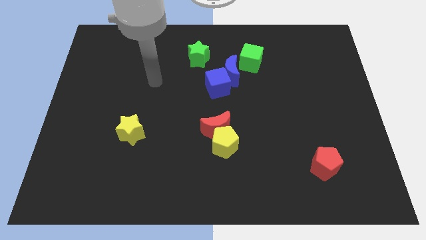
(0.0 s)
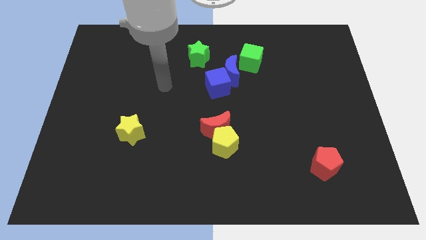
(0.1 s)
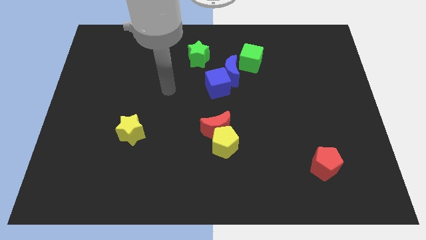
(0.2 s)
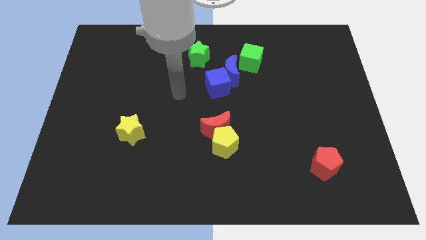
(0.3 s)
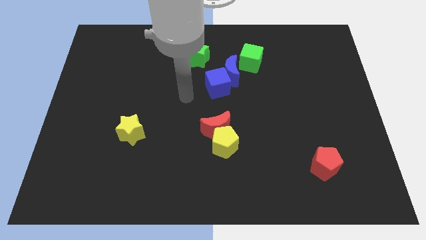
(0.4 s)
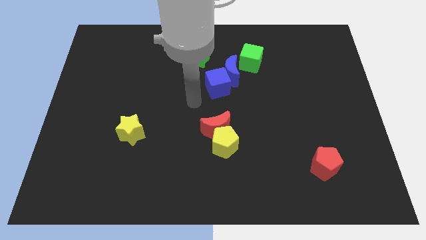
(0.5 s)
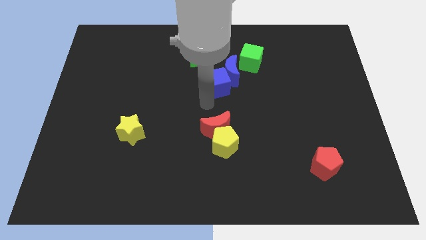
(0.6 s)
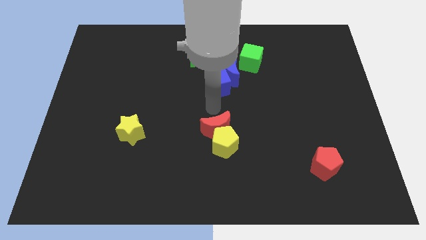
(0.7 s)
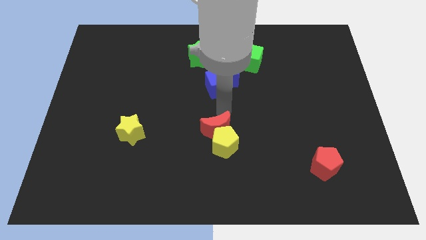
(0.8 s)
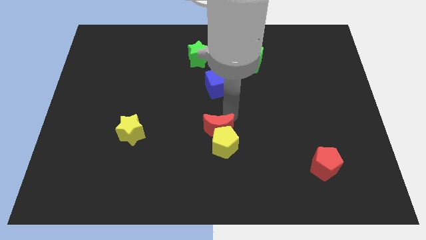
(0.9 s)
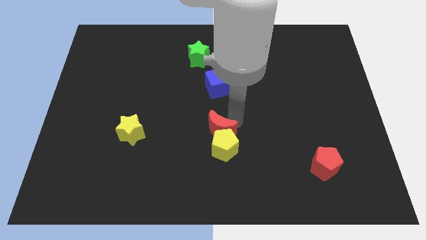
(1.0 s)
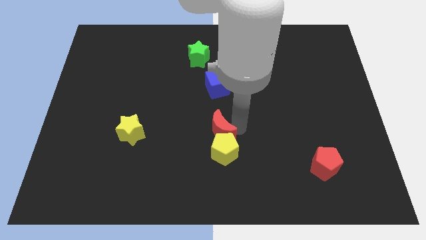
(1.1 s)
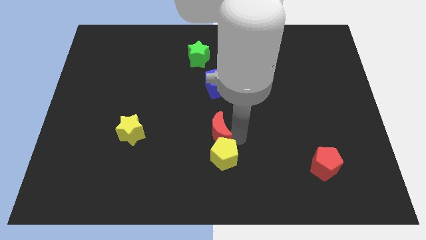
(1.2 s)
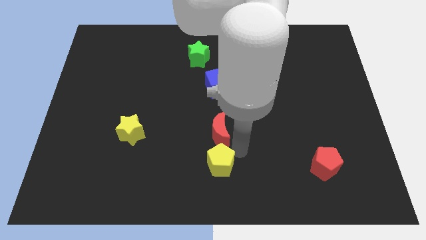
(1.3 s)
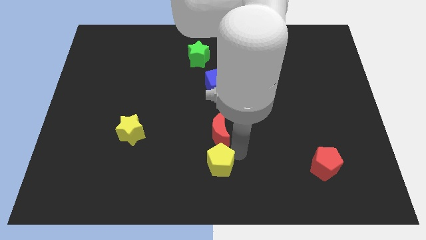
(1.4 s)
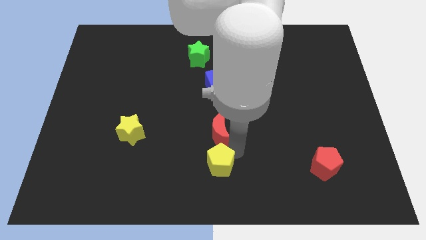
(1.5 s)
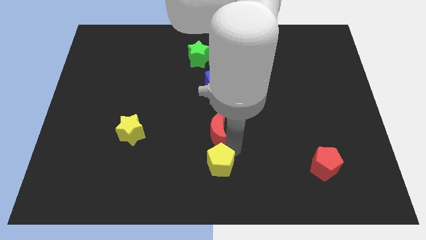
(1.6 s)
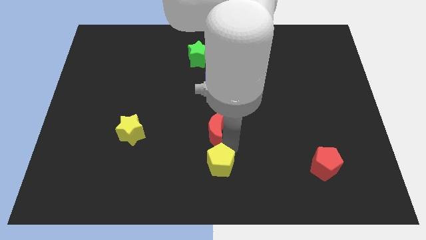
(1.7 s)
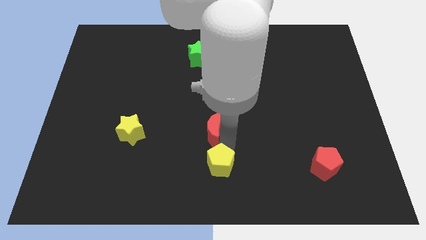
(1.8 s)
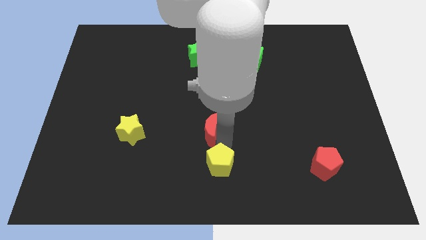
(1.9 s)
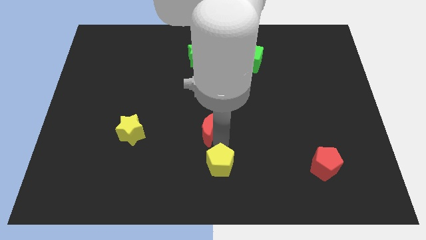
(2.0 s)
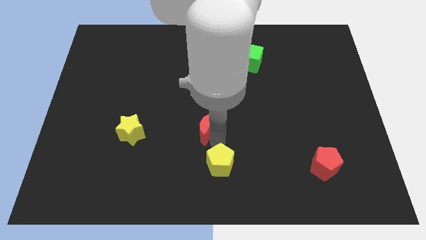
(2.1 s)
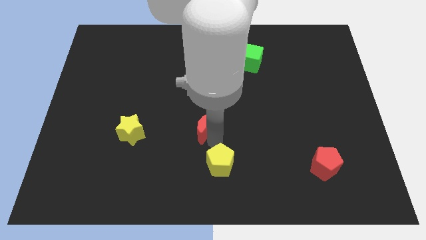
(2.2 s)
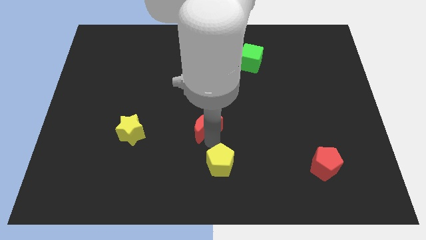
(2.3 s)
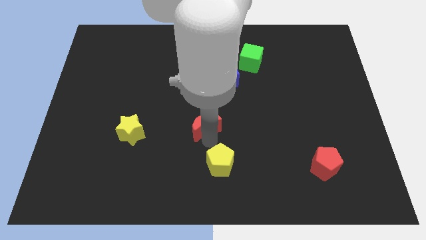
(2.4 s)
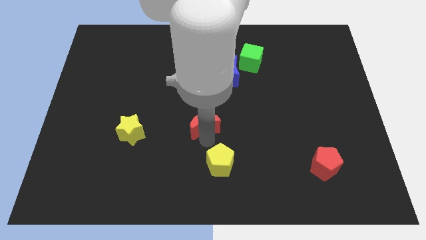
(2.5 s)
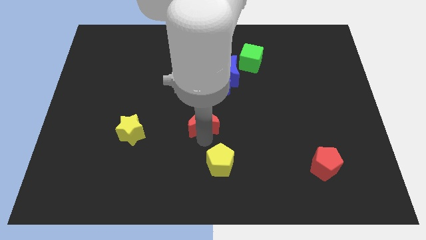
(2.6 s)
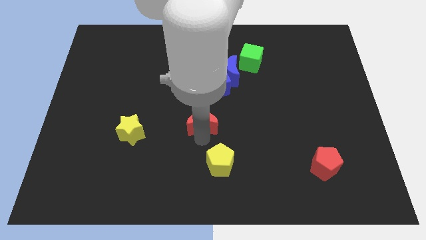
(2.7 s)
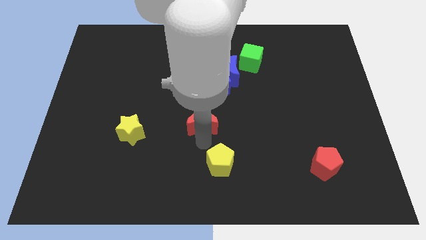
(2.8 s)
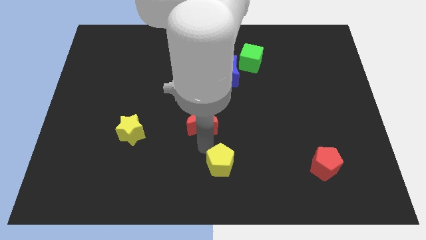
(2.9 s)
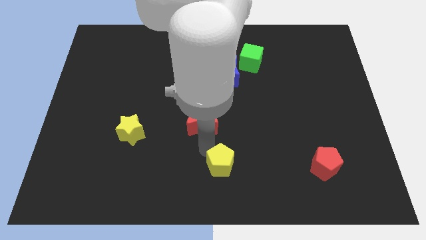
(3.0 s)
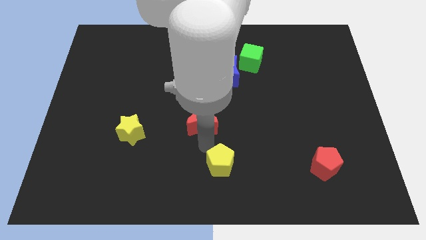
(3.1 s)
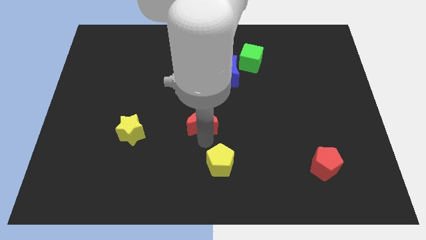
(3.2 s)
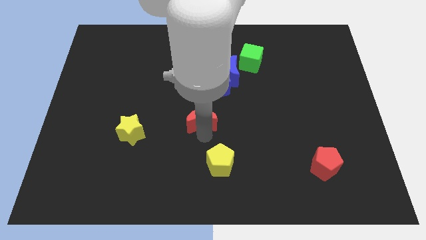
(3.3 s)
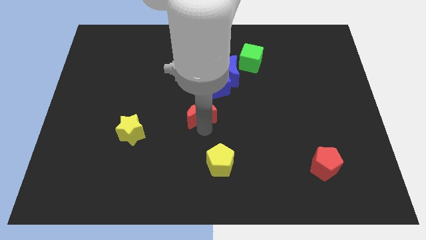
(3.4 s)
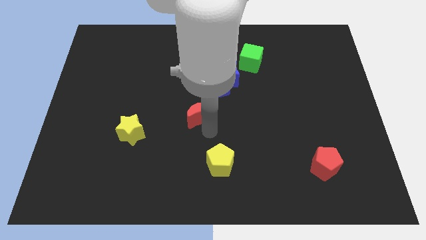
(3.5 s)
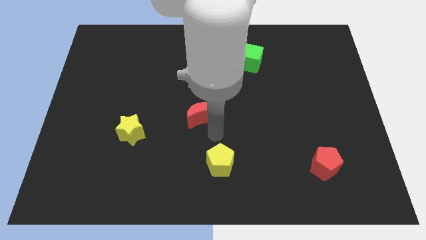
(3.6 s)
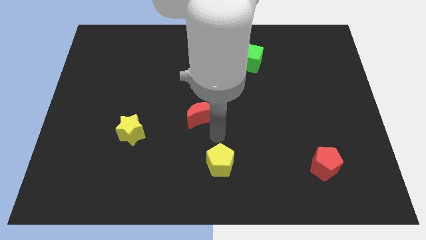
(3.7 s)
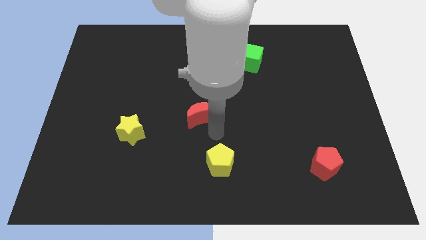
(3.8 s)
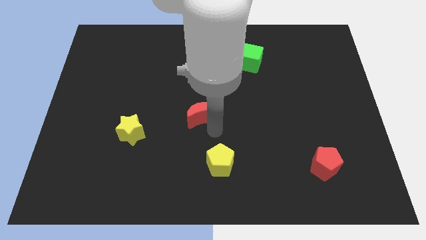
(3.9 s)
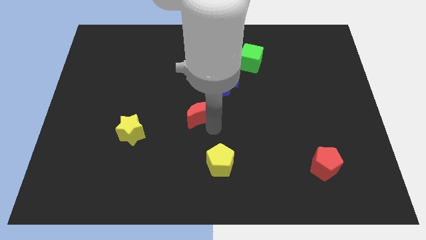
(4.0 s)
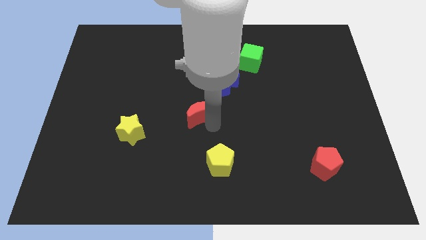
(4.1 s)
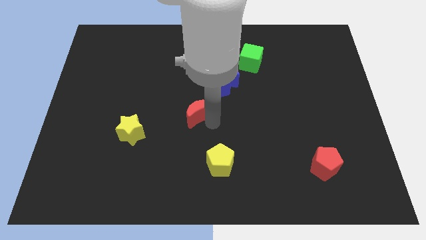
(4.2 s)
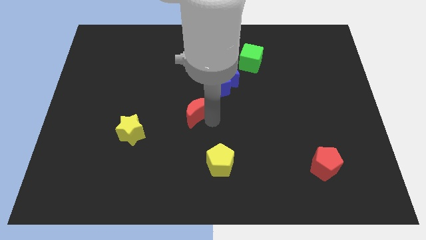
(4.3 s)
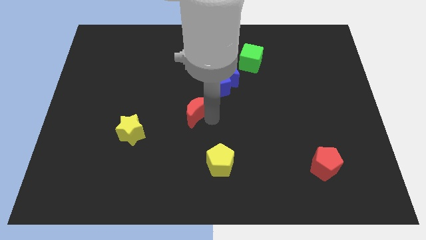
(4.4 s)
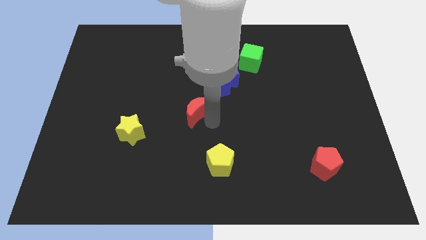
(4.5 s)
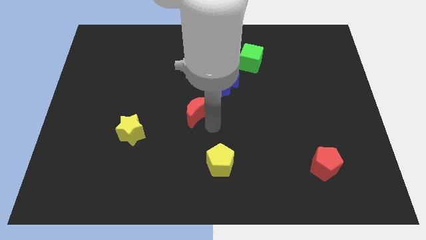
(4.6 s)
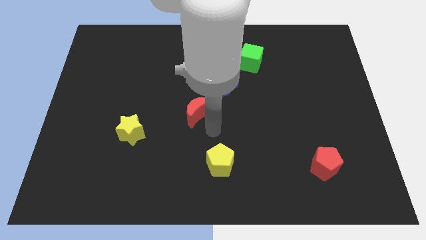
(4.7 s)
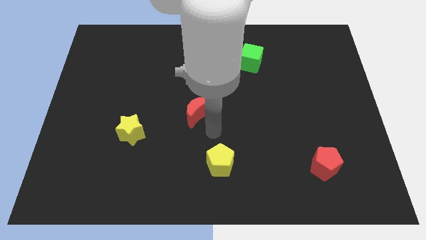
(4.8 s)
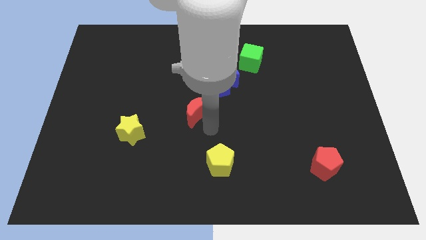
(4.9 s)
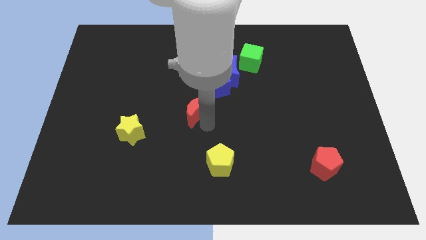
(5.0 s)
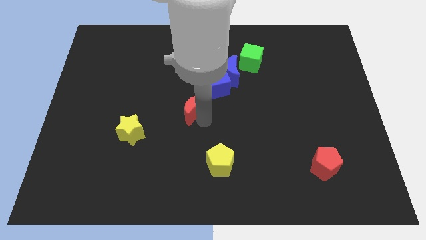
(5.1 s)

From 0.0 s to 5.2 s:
slide the red moon a bit upwards and left

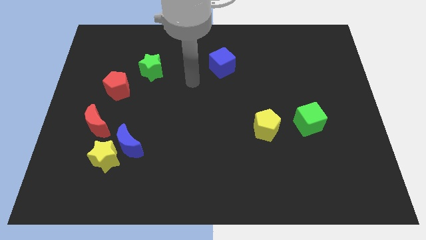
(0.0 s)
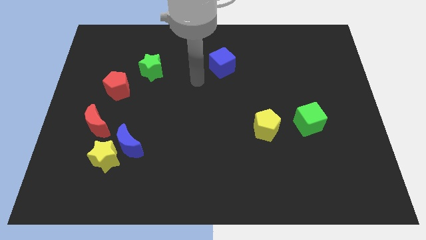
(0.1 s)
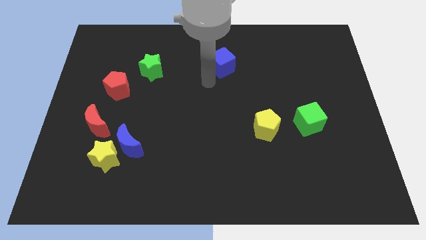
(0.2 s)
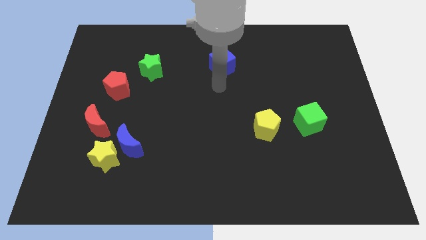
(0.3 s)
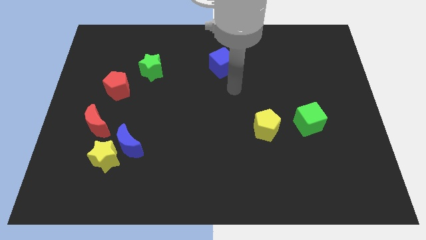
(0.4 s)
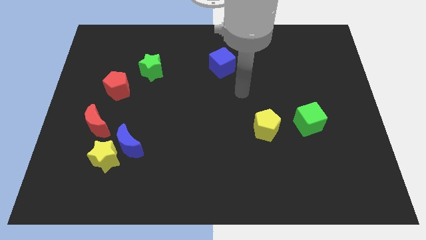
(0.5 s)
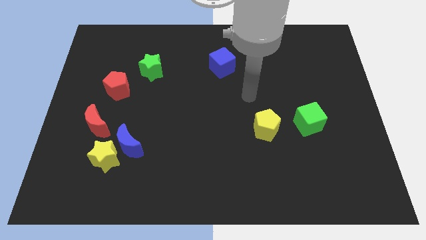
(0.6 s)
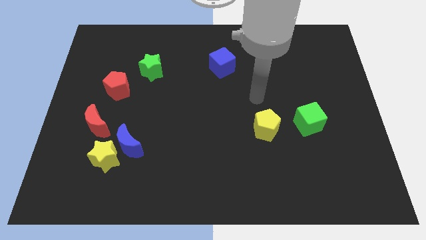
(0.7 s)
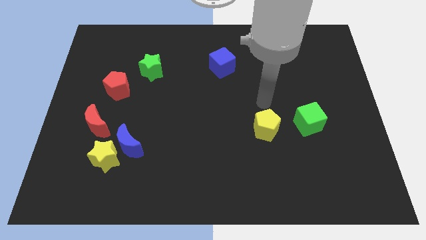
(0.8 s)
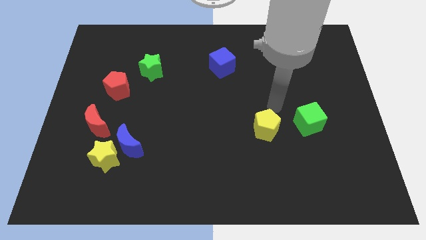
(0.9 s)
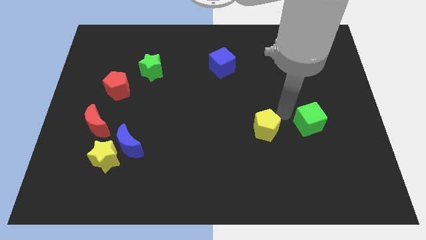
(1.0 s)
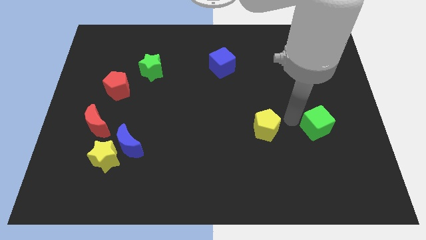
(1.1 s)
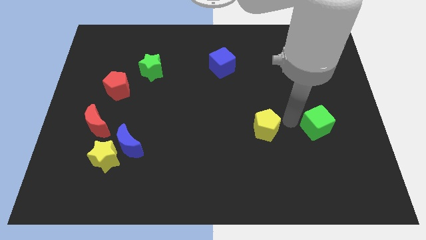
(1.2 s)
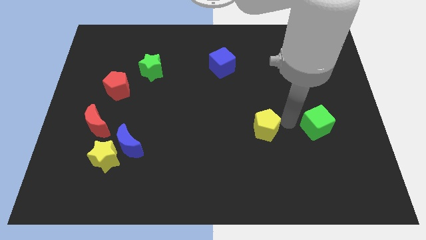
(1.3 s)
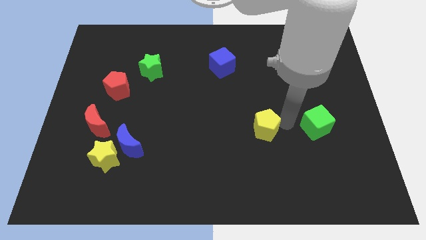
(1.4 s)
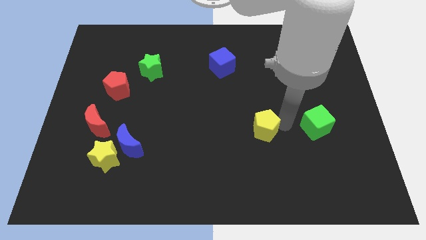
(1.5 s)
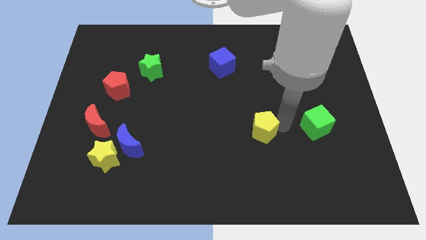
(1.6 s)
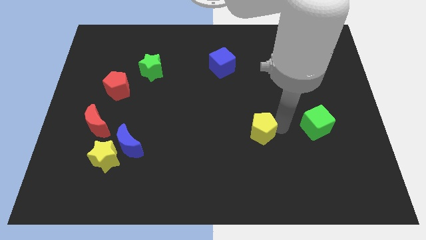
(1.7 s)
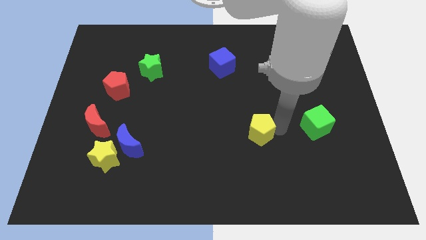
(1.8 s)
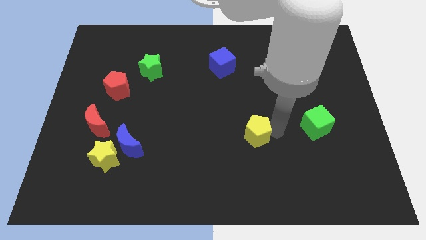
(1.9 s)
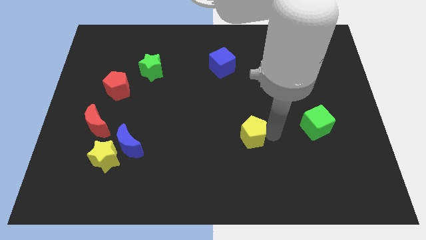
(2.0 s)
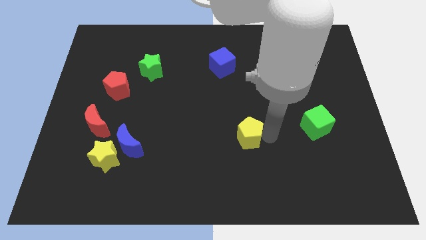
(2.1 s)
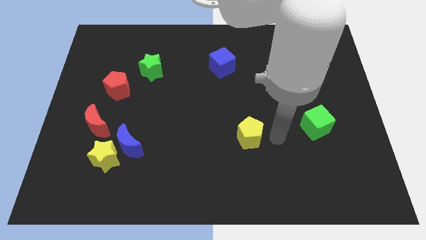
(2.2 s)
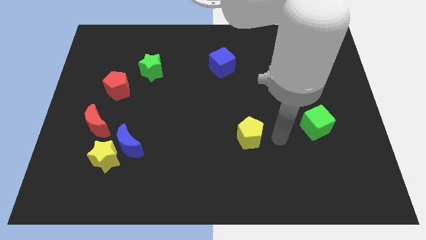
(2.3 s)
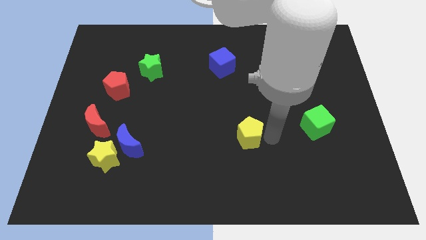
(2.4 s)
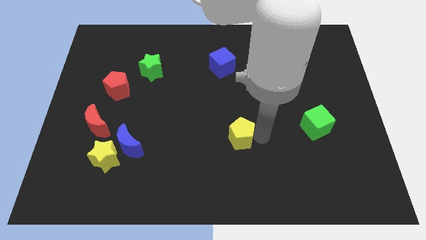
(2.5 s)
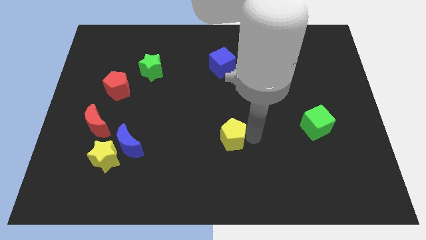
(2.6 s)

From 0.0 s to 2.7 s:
push the yellow pentagon a little bit left

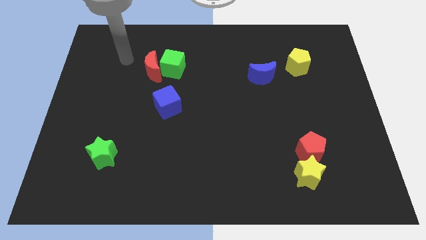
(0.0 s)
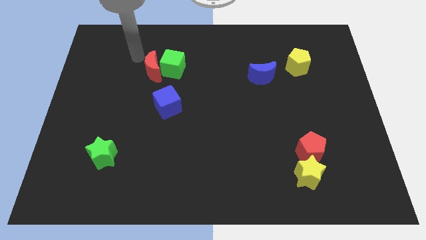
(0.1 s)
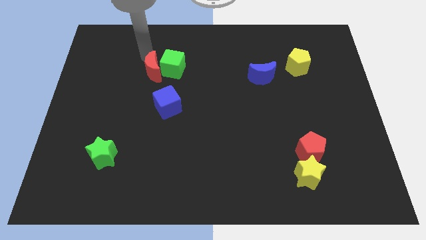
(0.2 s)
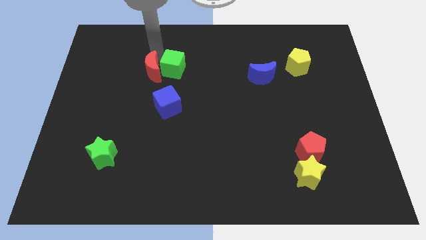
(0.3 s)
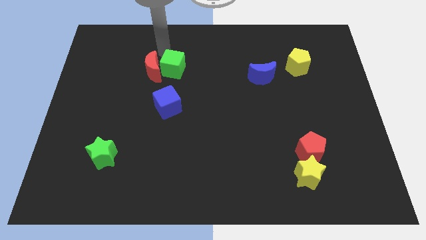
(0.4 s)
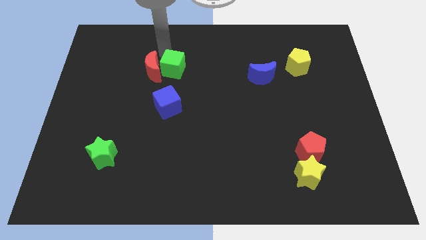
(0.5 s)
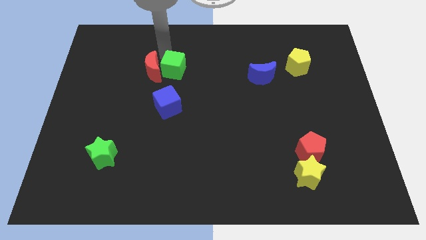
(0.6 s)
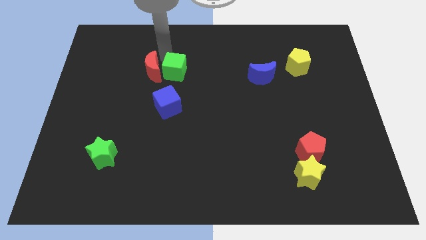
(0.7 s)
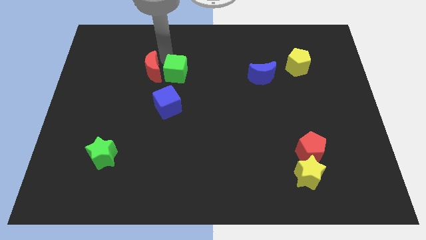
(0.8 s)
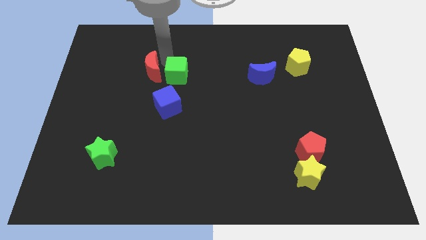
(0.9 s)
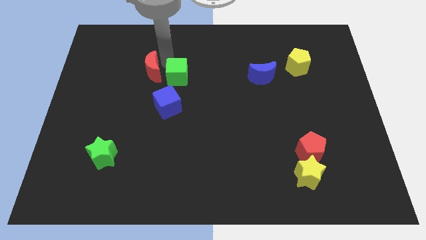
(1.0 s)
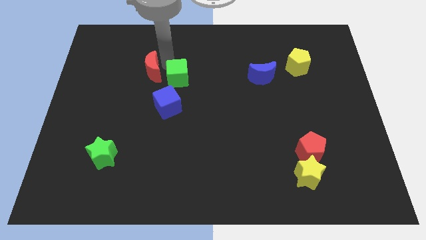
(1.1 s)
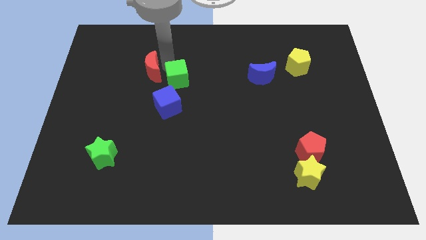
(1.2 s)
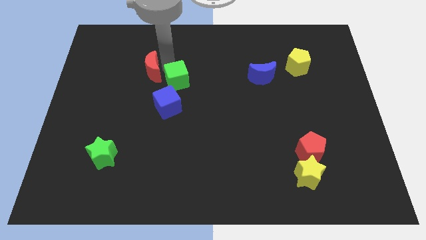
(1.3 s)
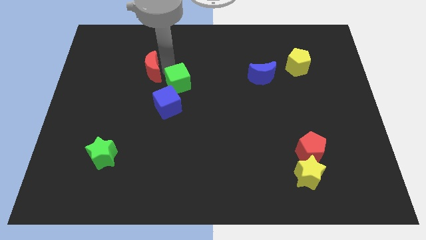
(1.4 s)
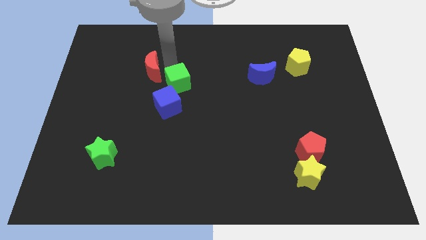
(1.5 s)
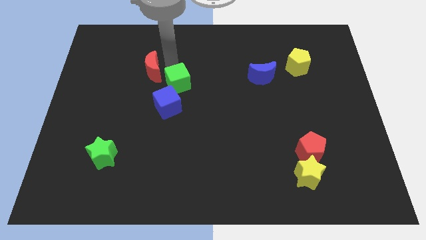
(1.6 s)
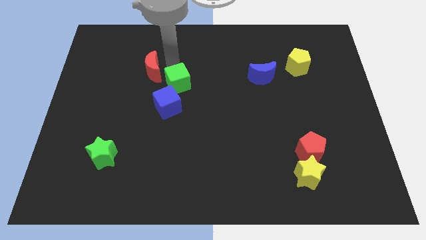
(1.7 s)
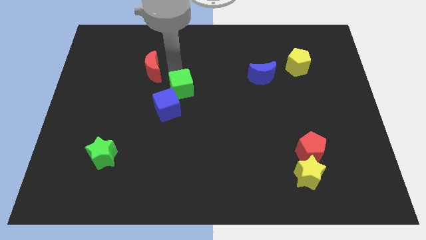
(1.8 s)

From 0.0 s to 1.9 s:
slightly move the green cube down
